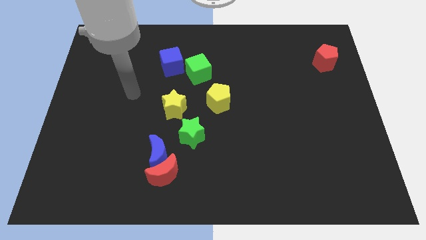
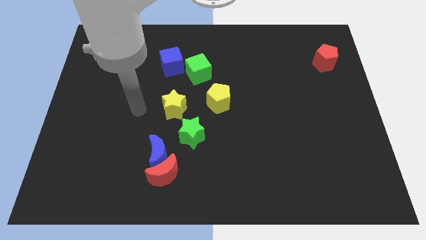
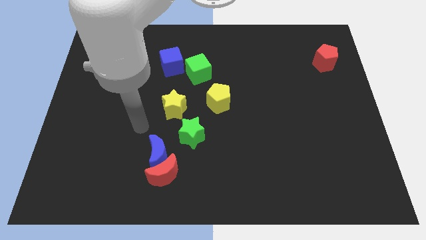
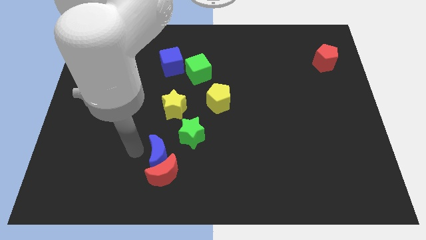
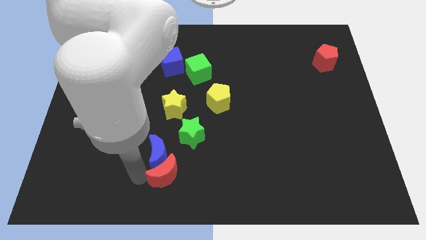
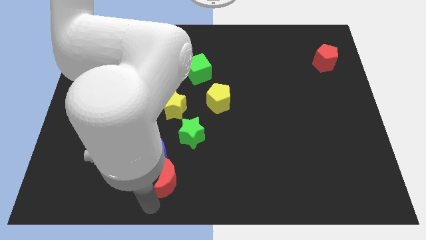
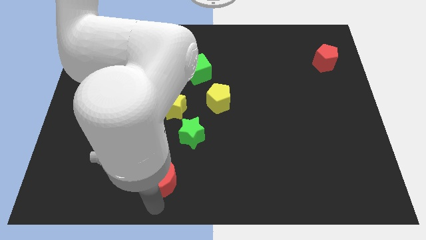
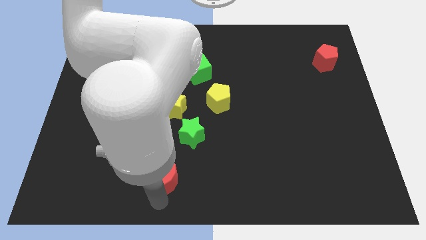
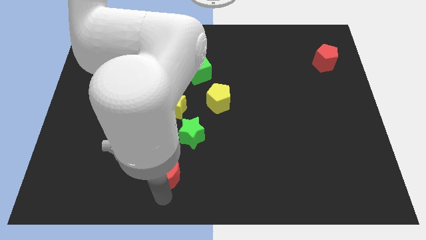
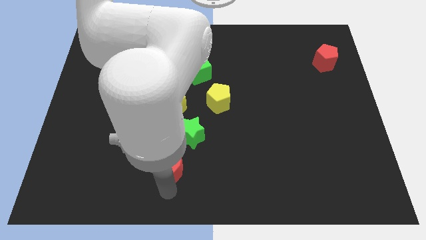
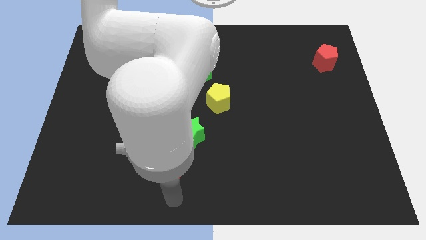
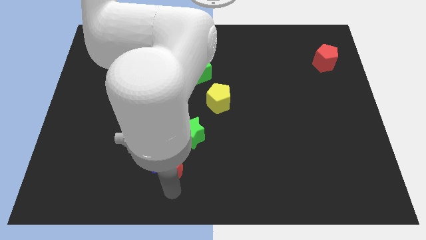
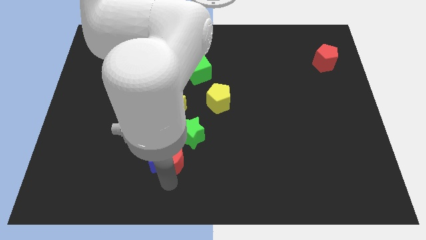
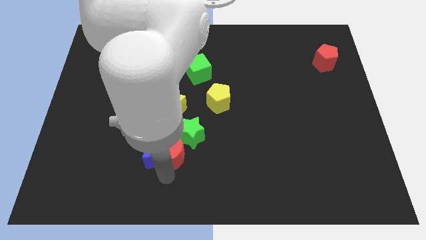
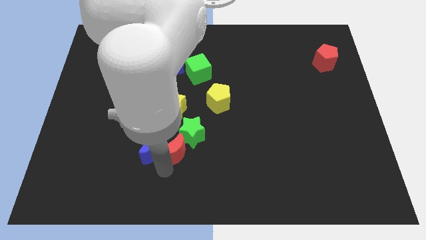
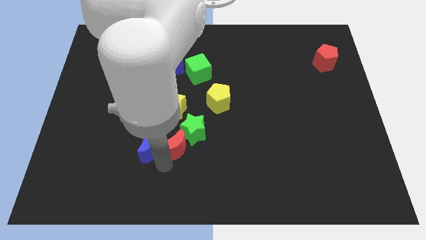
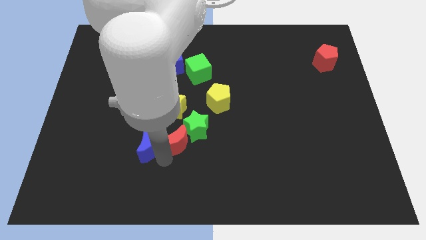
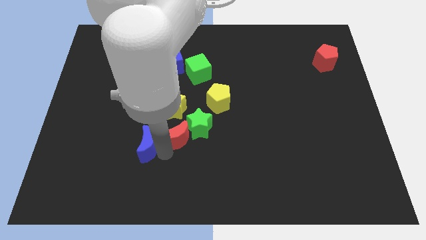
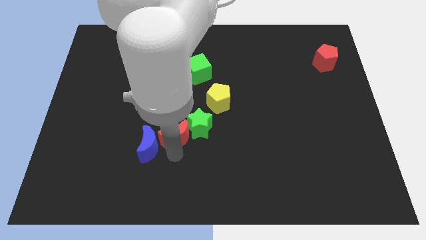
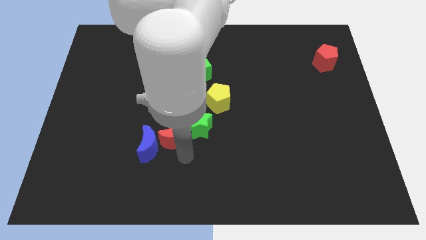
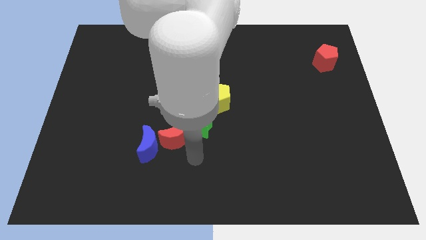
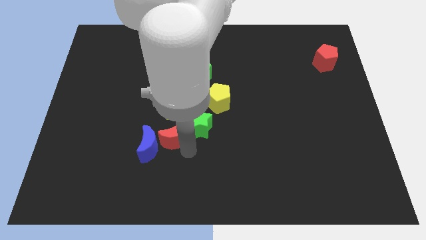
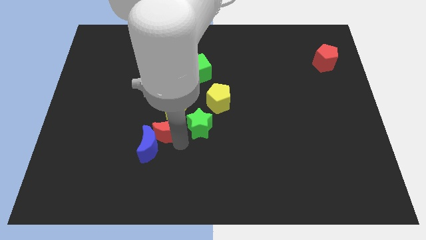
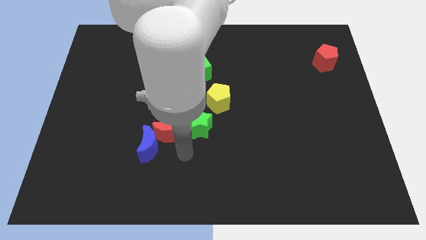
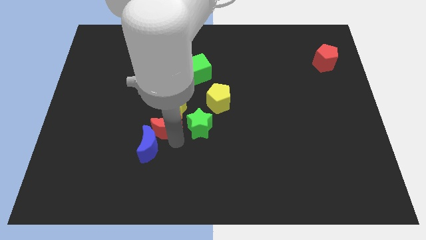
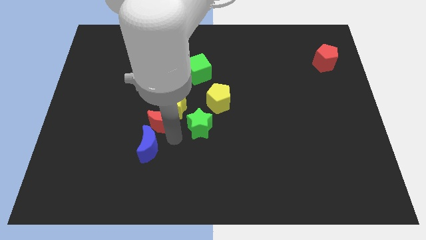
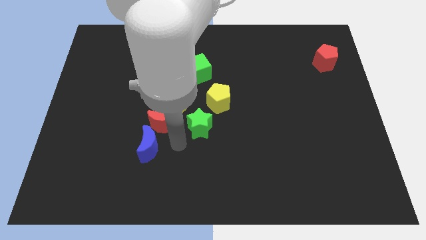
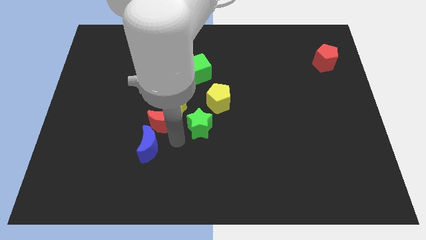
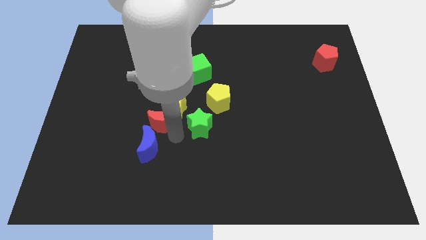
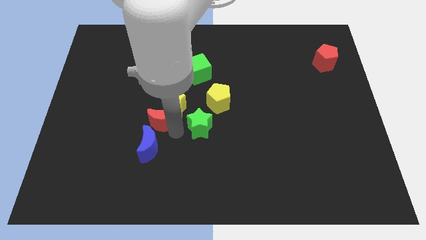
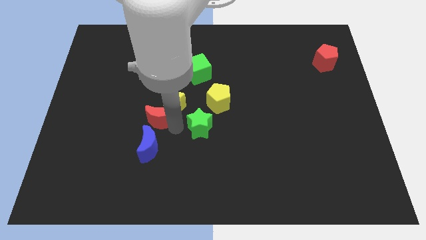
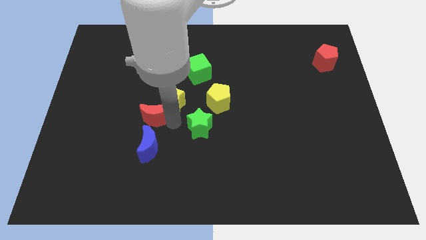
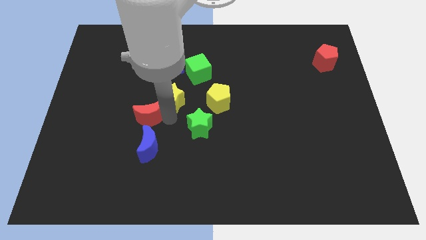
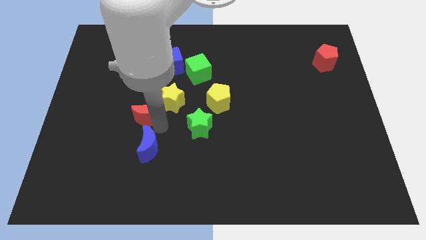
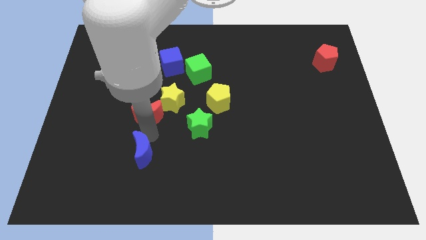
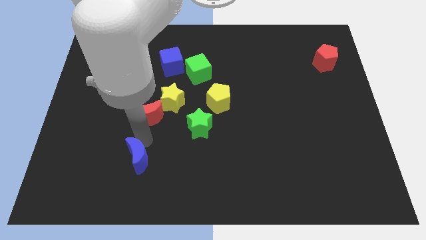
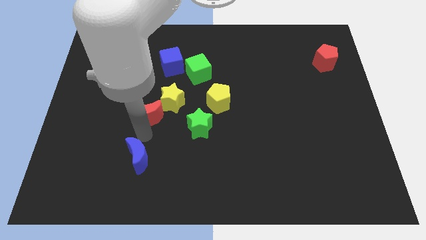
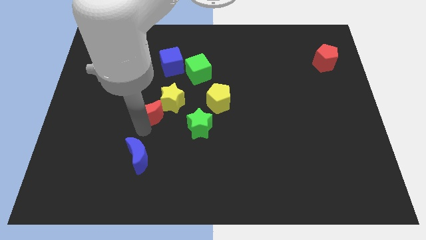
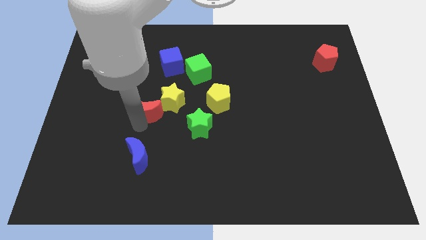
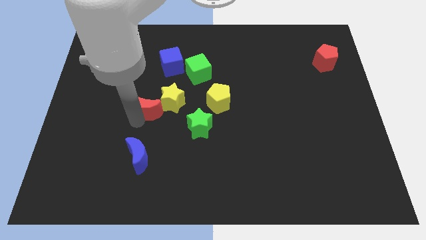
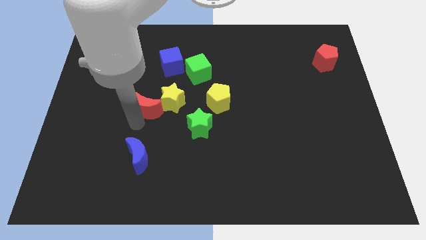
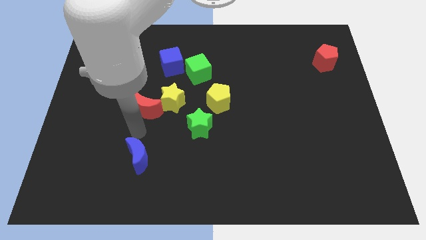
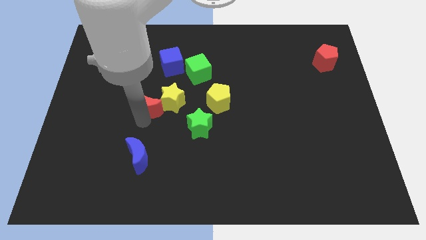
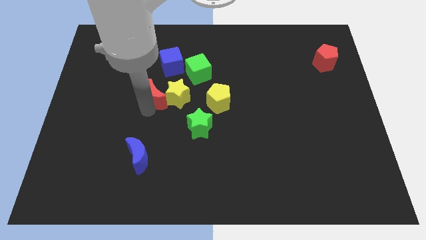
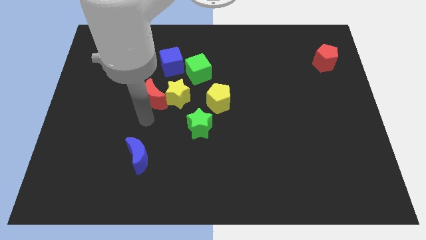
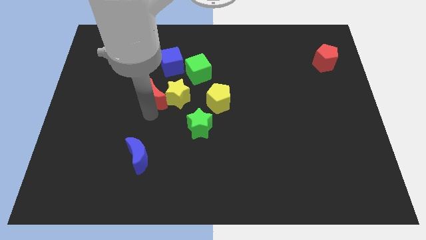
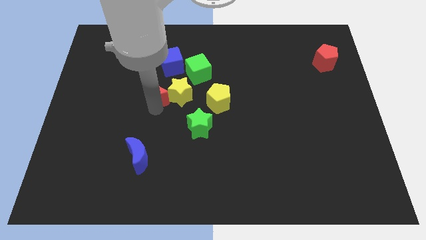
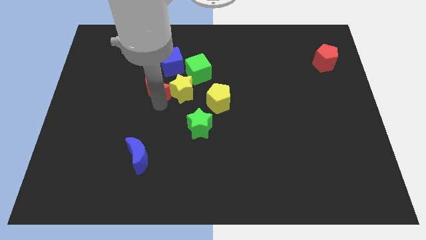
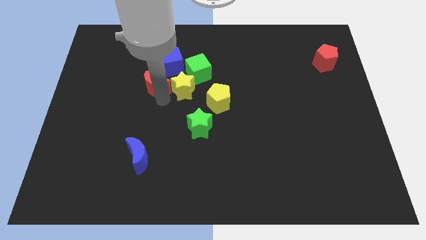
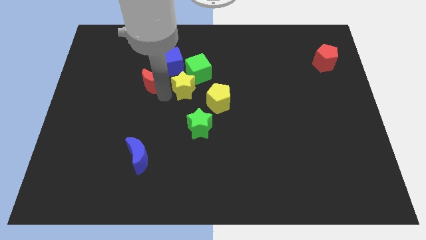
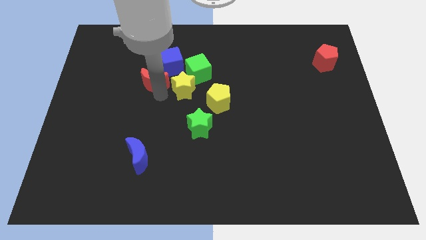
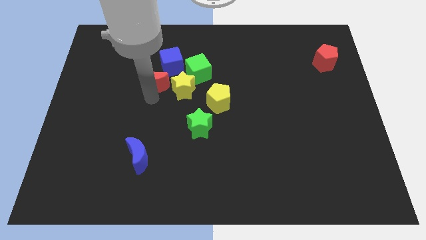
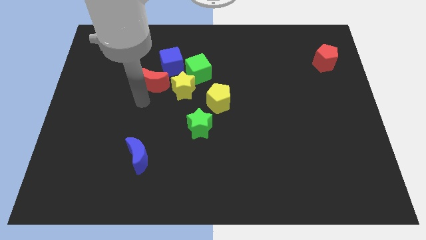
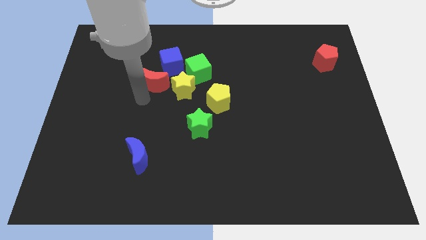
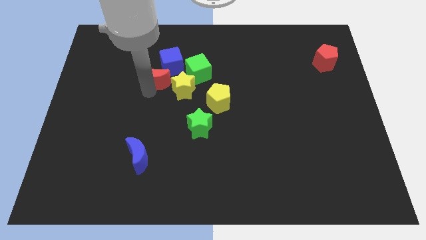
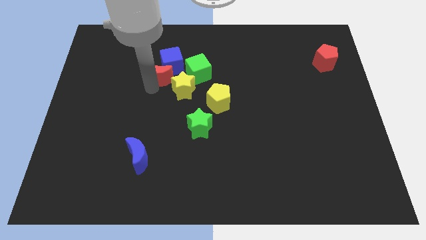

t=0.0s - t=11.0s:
slide the red moon towards the blue cube

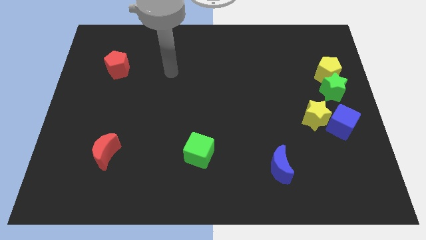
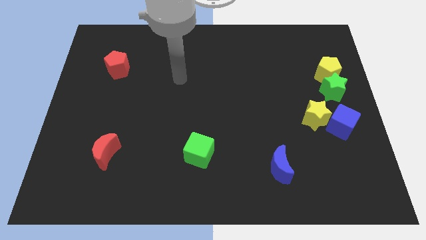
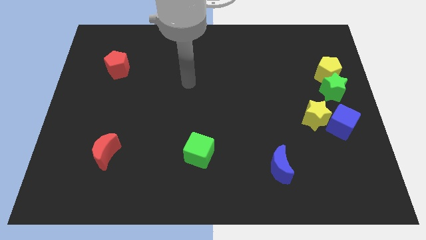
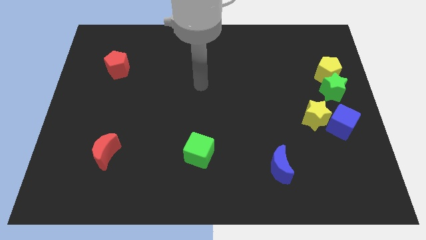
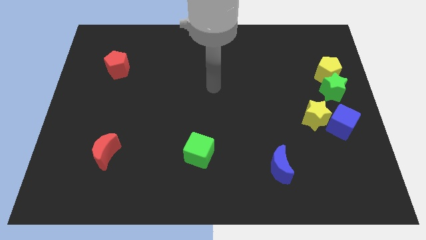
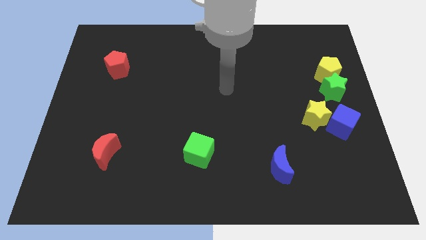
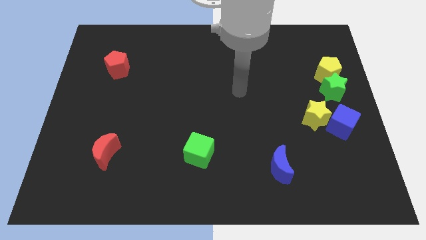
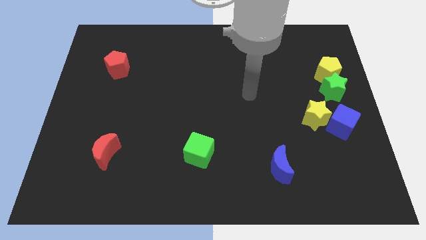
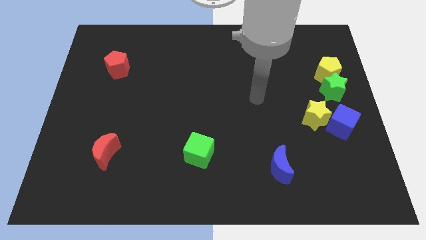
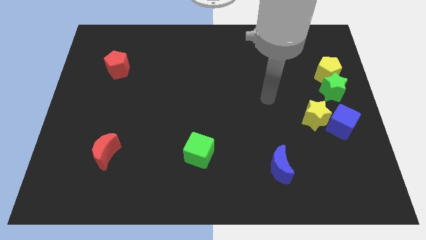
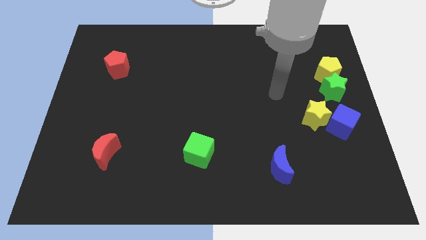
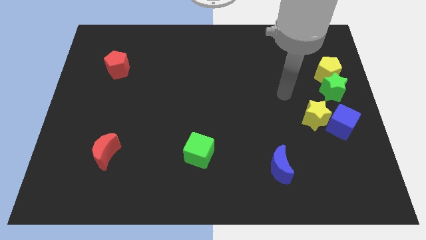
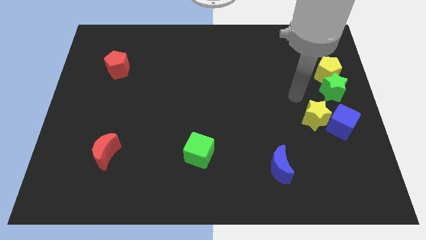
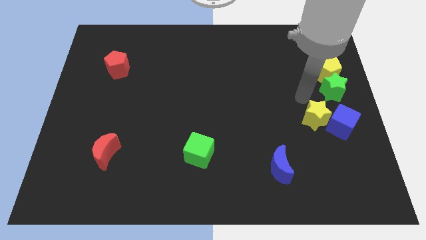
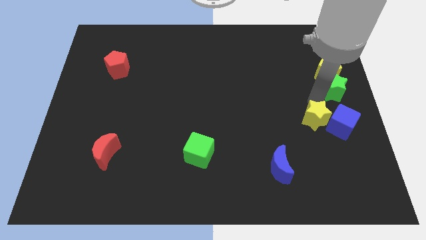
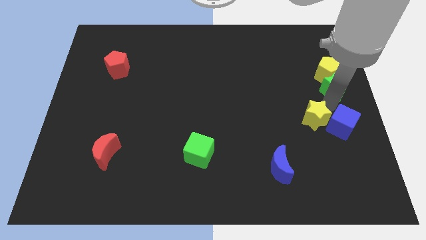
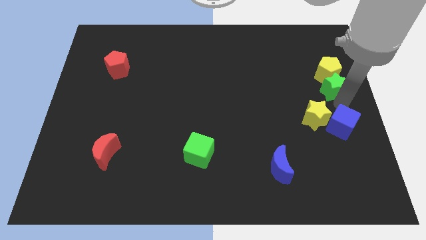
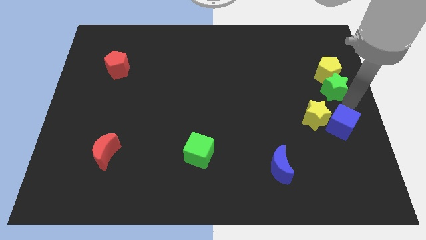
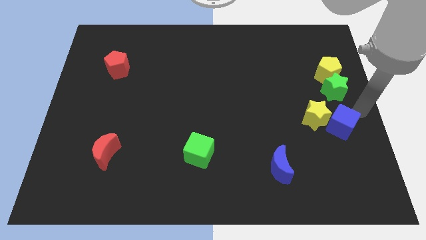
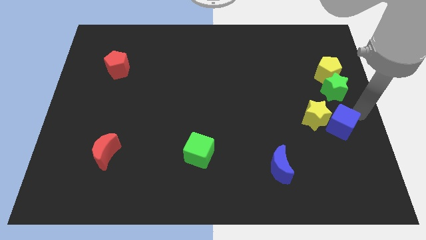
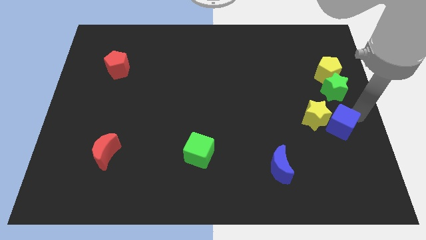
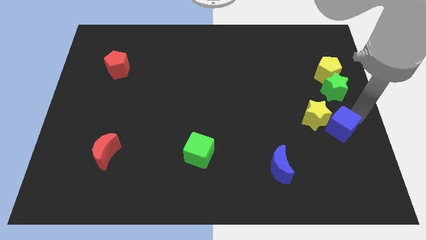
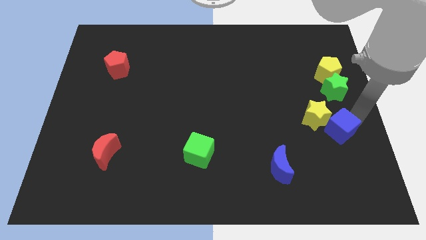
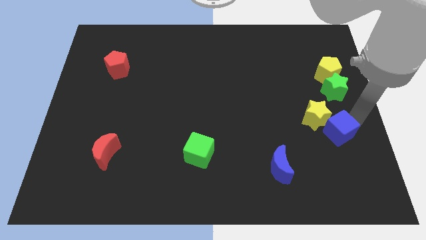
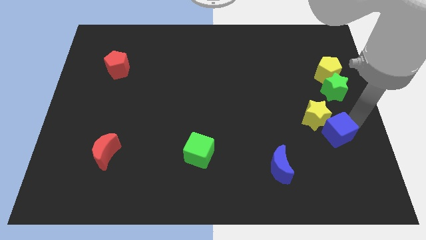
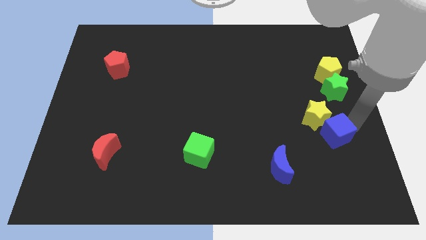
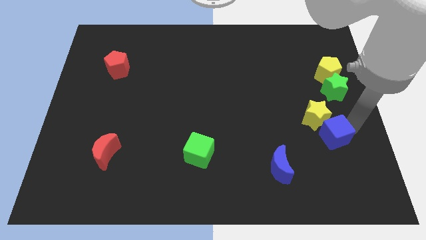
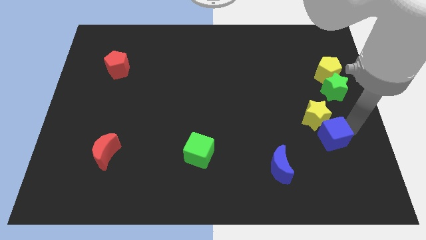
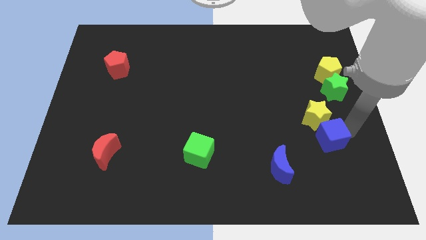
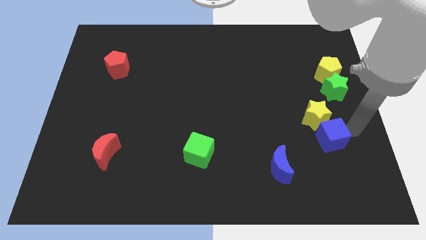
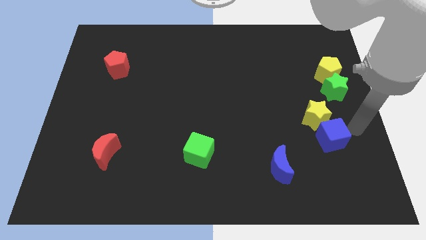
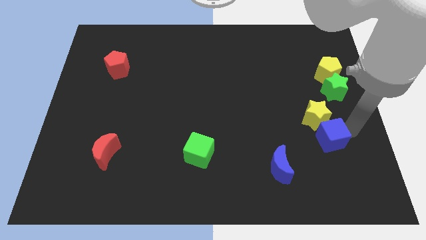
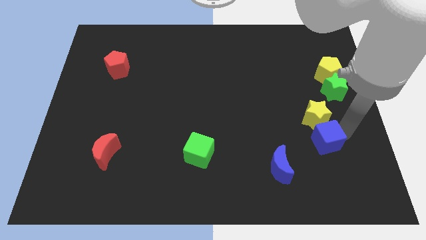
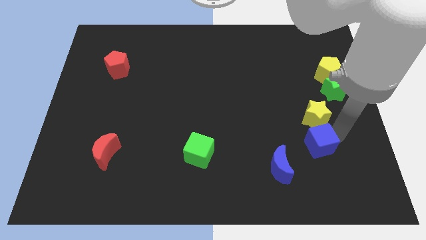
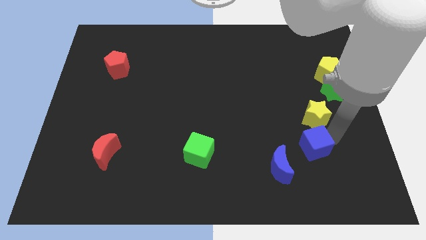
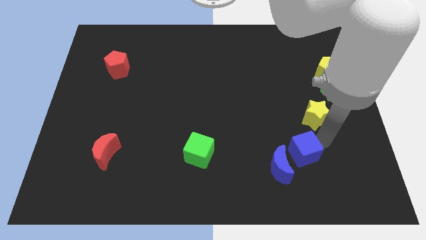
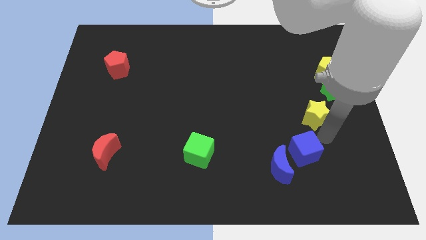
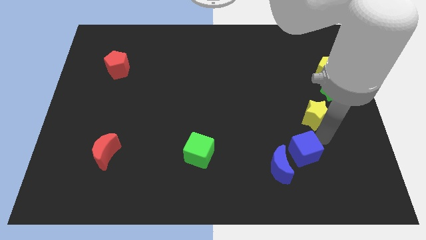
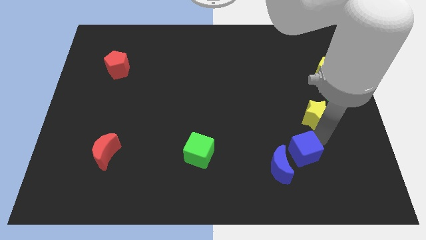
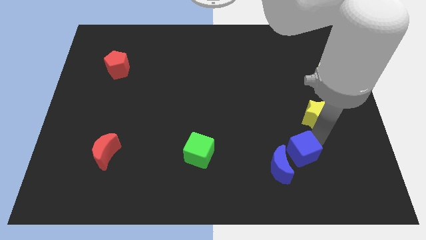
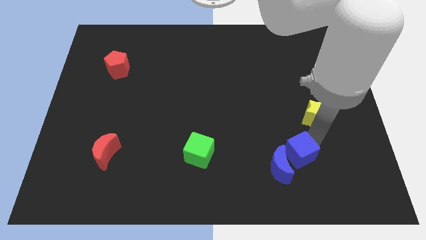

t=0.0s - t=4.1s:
push the blue cube towards the blue moon
